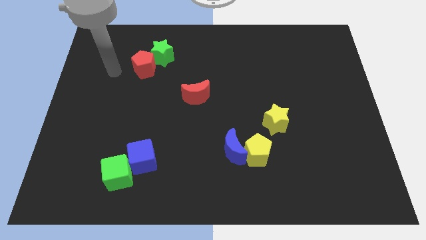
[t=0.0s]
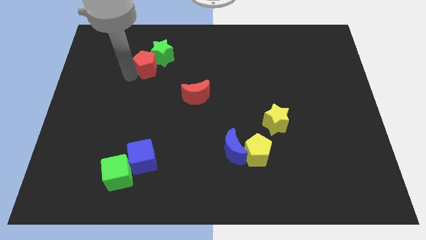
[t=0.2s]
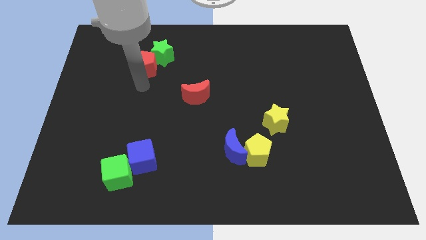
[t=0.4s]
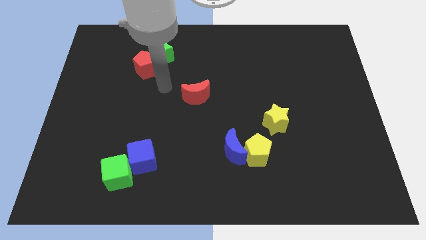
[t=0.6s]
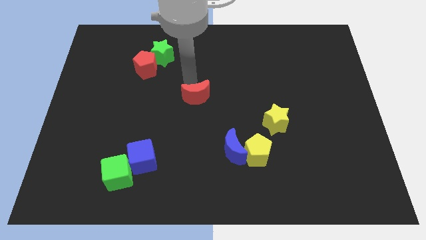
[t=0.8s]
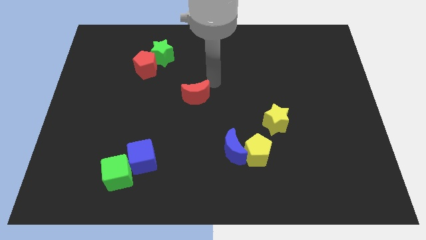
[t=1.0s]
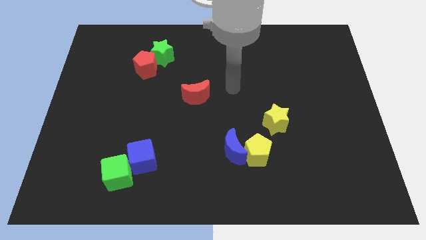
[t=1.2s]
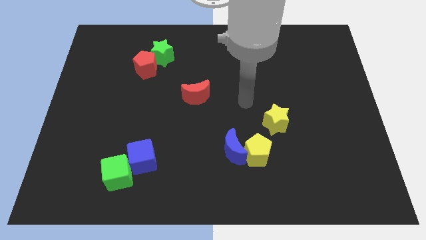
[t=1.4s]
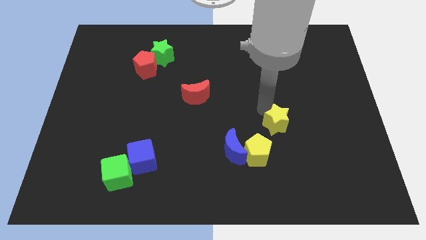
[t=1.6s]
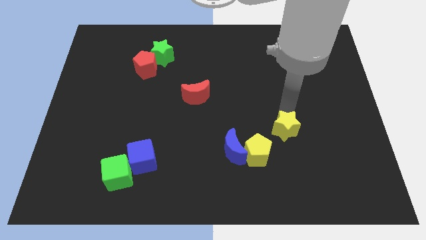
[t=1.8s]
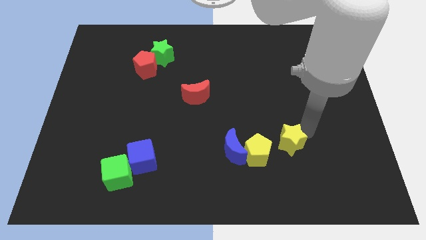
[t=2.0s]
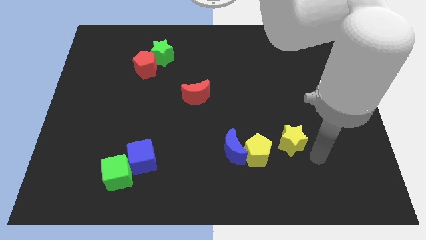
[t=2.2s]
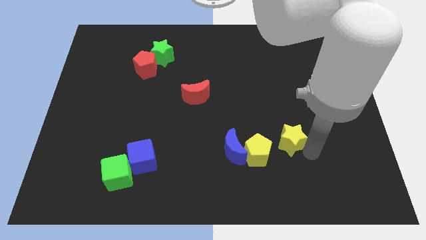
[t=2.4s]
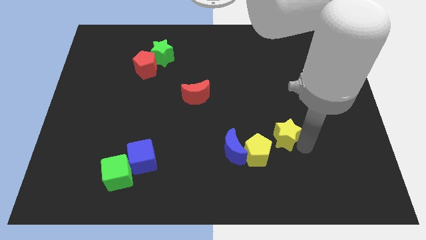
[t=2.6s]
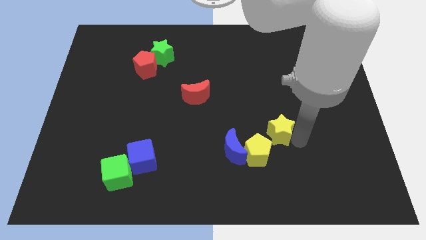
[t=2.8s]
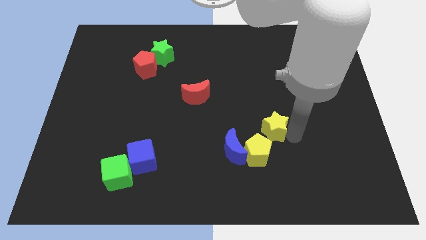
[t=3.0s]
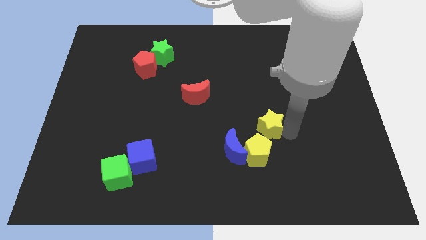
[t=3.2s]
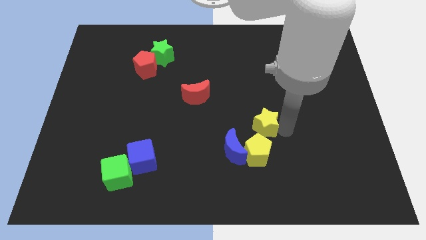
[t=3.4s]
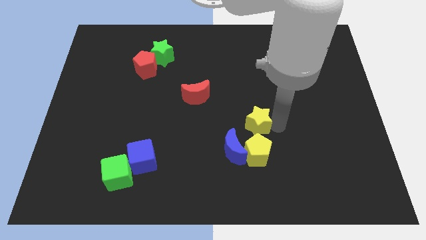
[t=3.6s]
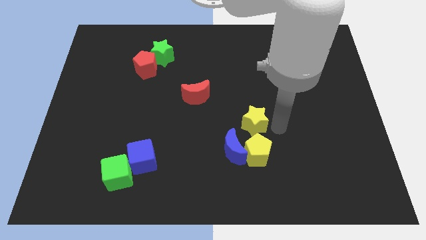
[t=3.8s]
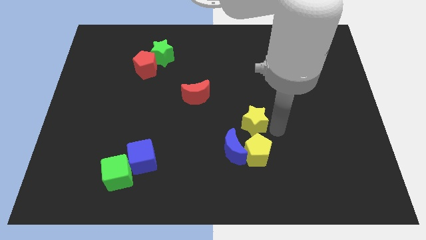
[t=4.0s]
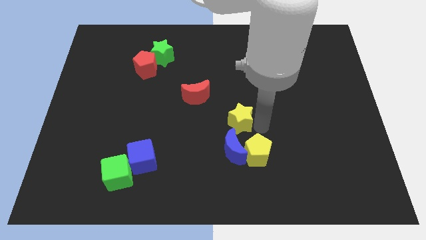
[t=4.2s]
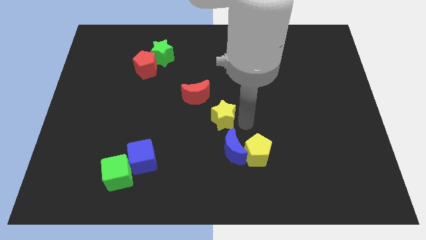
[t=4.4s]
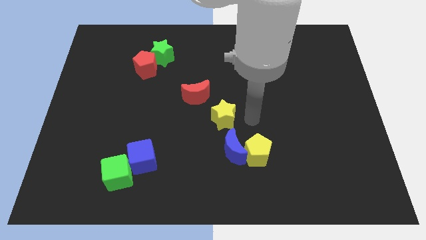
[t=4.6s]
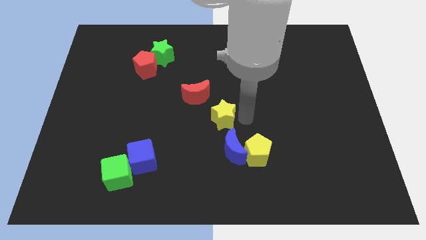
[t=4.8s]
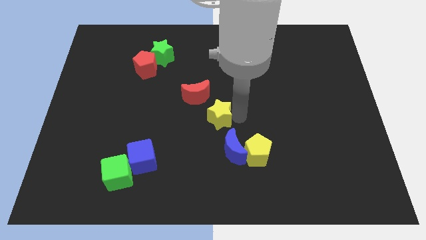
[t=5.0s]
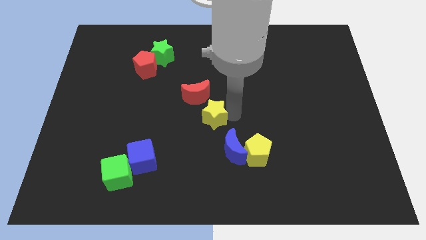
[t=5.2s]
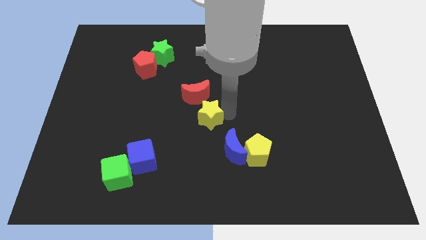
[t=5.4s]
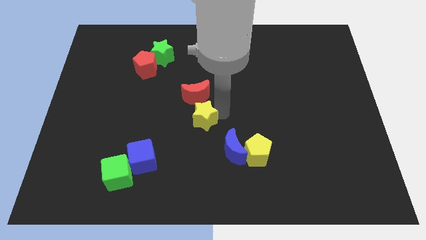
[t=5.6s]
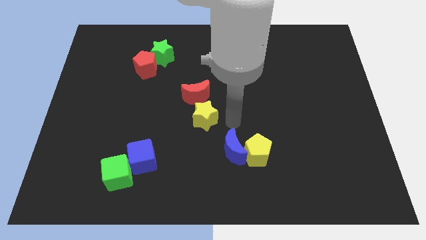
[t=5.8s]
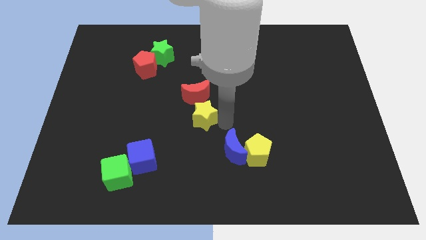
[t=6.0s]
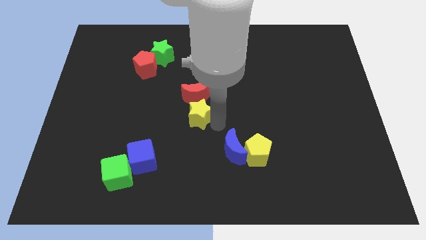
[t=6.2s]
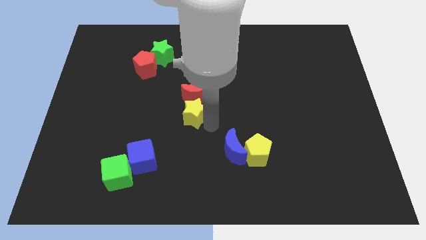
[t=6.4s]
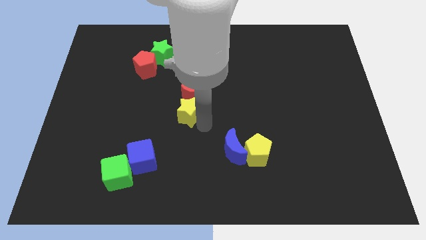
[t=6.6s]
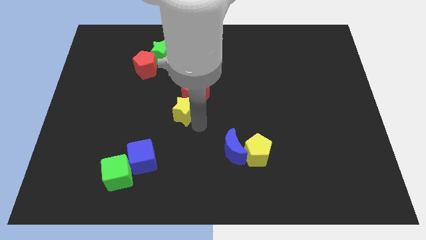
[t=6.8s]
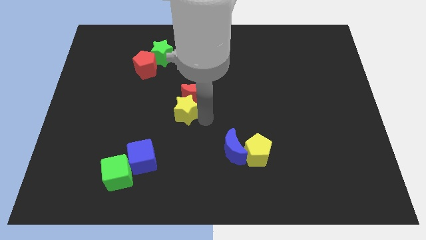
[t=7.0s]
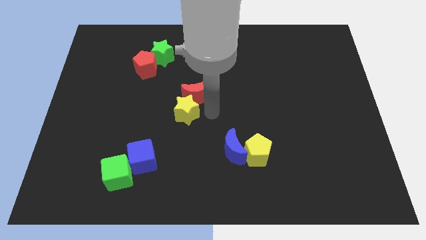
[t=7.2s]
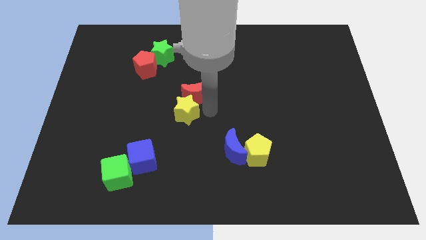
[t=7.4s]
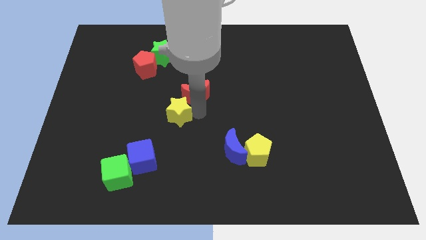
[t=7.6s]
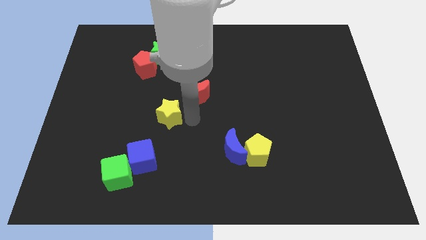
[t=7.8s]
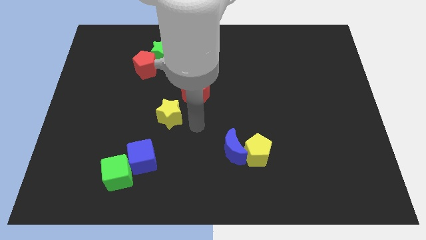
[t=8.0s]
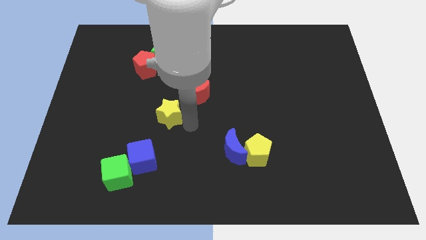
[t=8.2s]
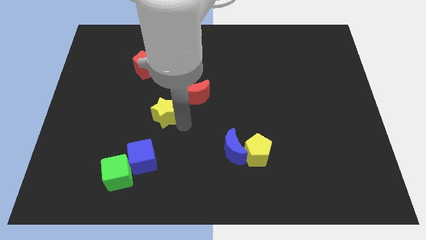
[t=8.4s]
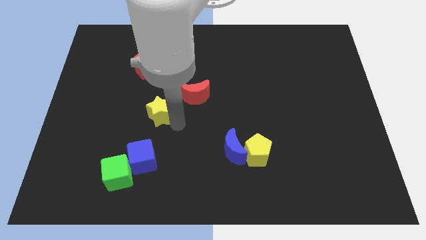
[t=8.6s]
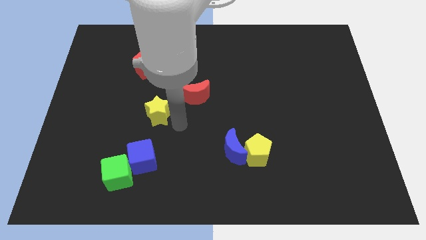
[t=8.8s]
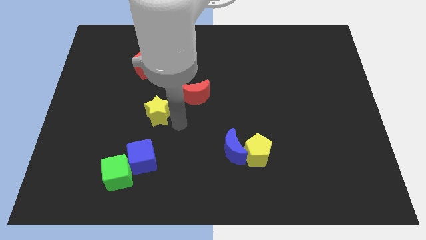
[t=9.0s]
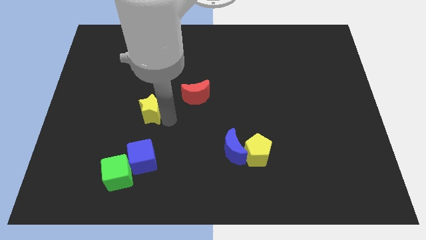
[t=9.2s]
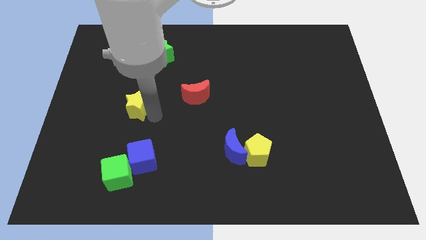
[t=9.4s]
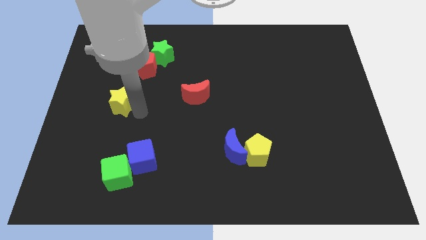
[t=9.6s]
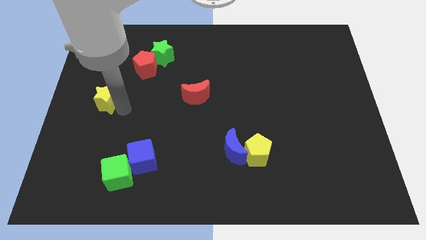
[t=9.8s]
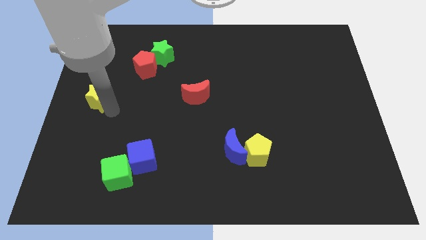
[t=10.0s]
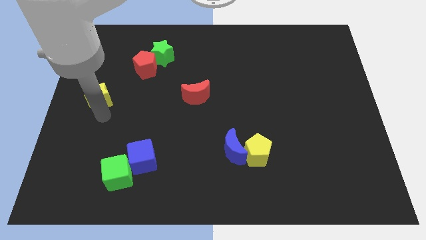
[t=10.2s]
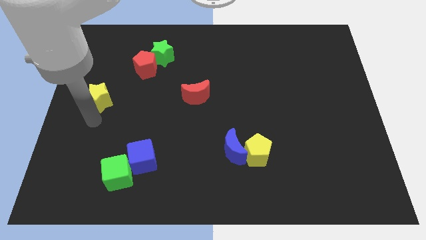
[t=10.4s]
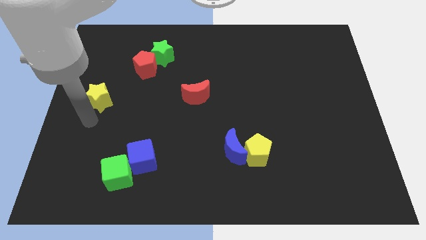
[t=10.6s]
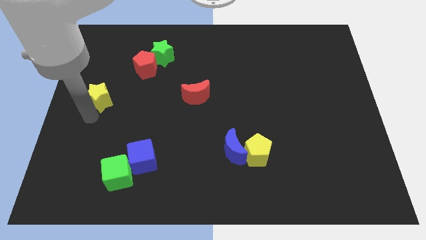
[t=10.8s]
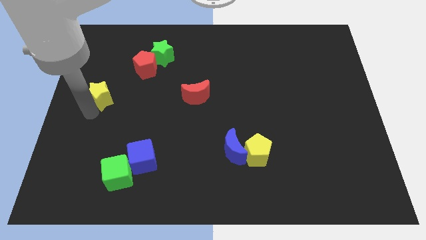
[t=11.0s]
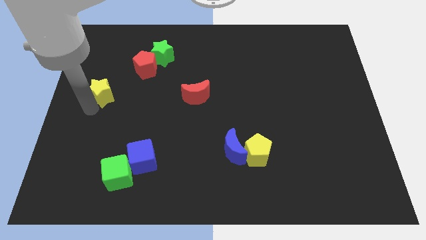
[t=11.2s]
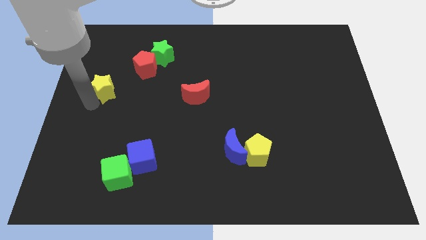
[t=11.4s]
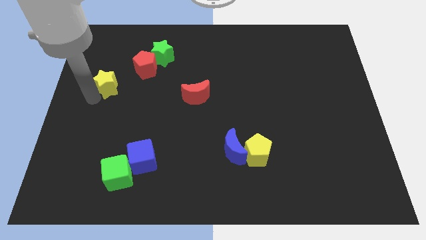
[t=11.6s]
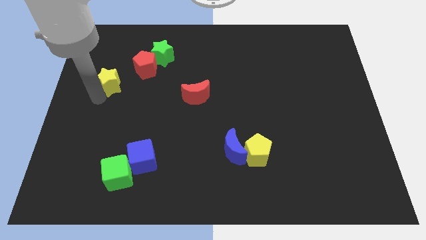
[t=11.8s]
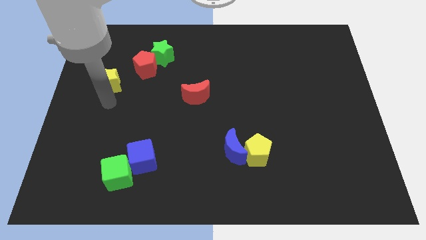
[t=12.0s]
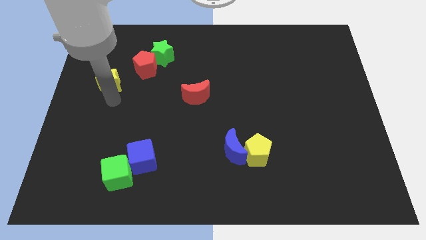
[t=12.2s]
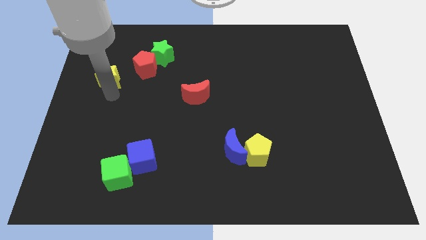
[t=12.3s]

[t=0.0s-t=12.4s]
move the yellow star left of the red pentagon

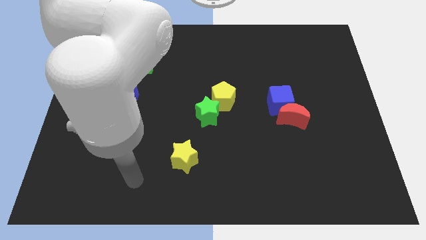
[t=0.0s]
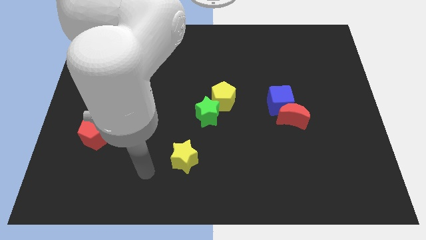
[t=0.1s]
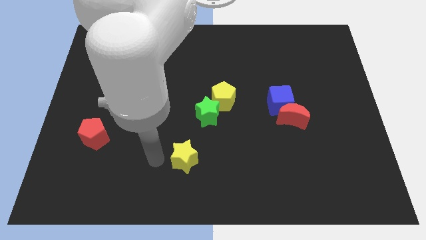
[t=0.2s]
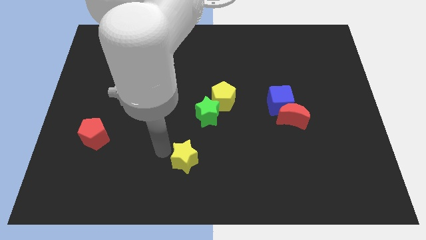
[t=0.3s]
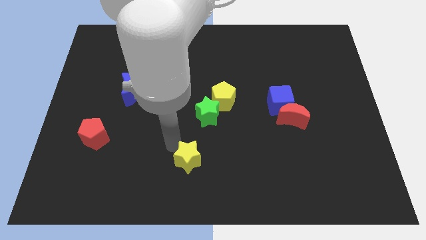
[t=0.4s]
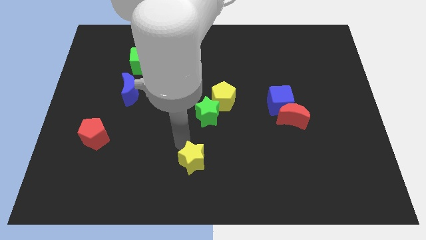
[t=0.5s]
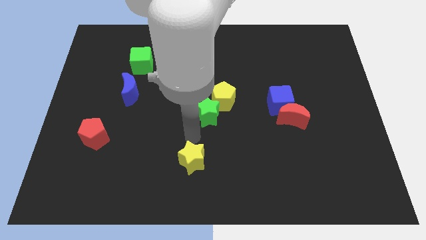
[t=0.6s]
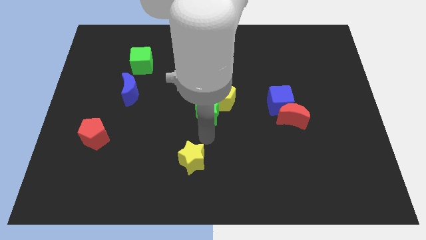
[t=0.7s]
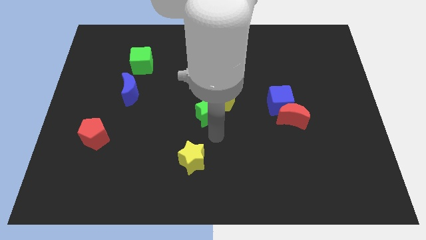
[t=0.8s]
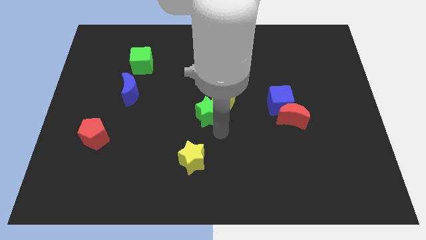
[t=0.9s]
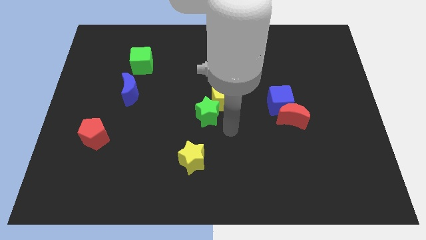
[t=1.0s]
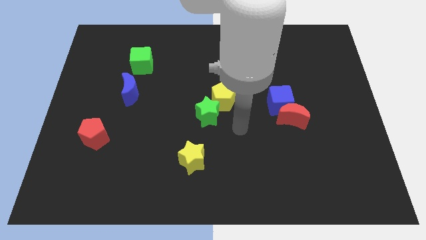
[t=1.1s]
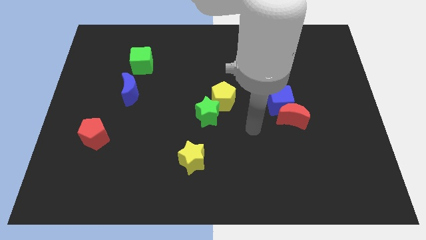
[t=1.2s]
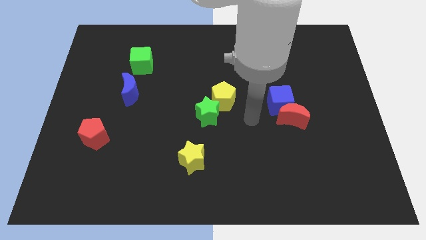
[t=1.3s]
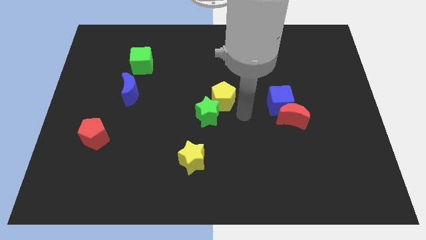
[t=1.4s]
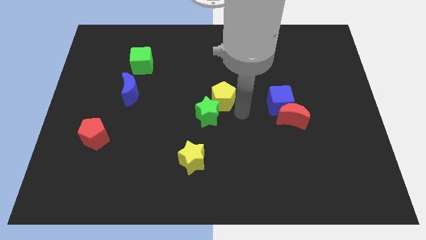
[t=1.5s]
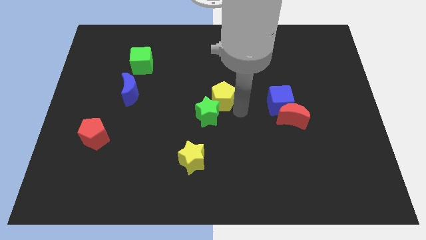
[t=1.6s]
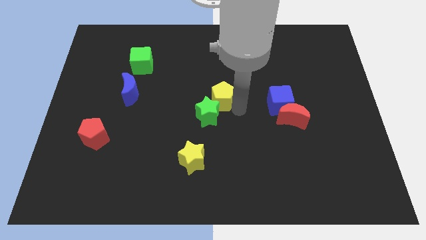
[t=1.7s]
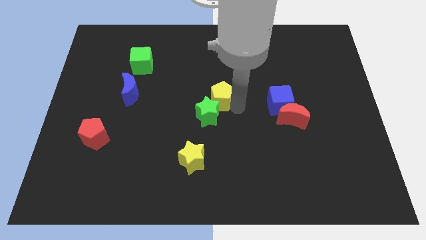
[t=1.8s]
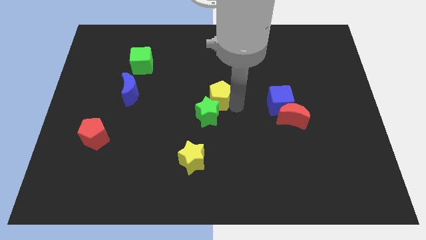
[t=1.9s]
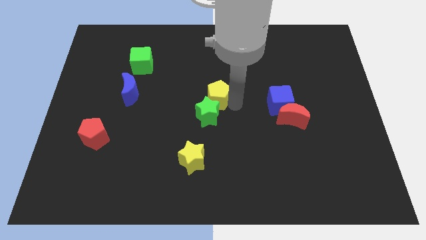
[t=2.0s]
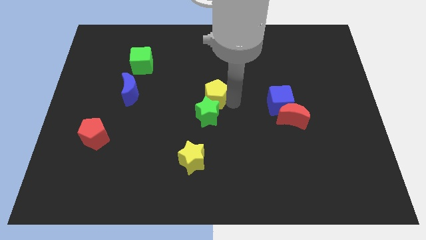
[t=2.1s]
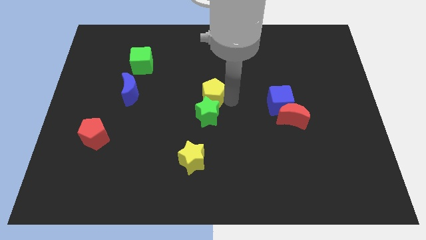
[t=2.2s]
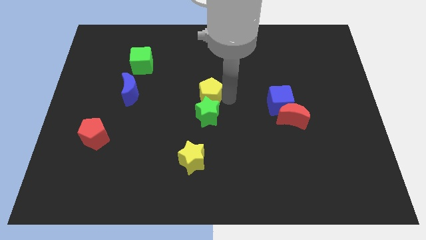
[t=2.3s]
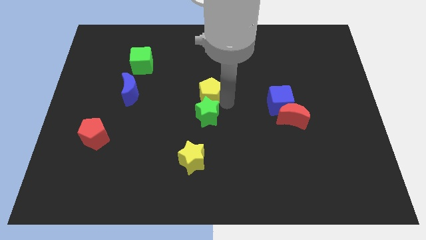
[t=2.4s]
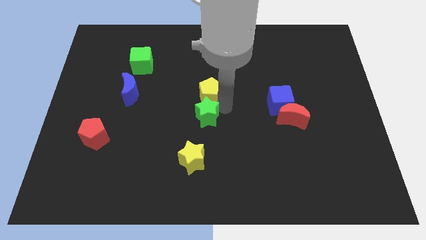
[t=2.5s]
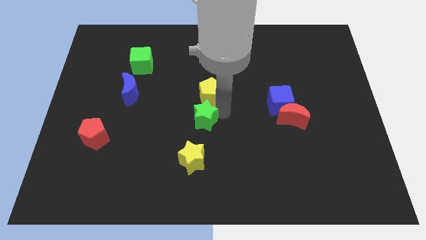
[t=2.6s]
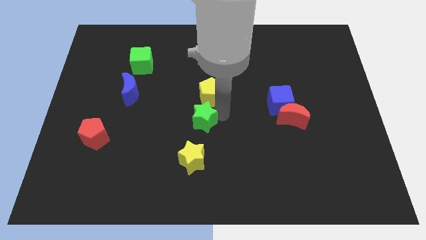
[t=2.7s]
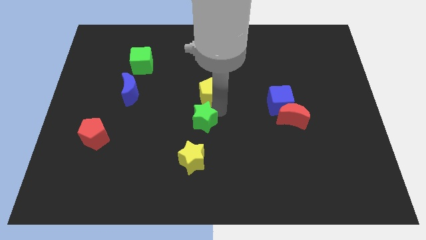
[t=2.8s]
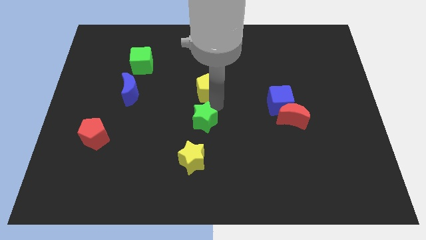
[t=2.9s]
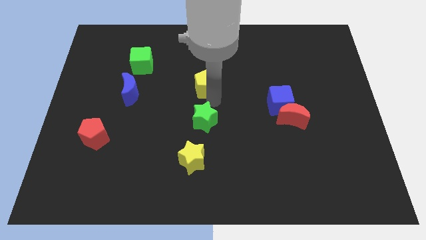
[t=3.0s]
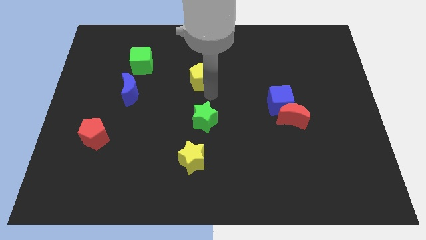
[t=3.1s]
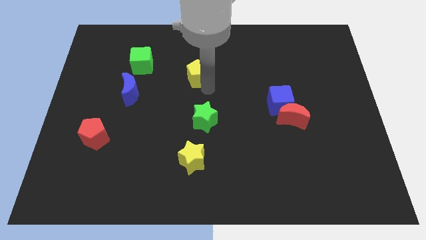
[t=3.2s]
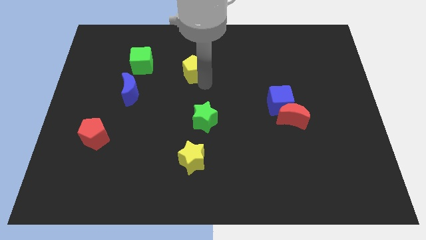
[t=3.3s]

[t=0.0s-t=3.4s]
slide the yellow pentagon to the right of the green cube
